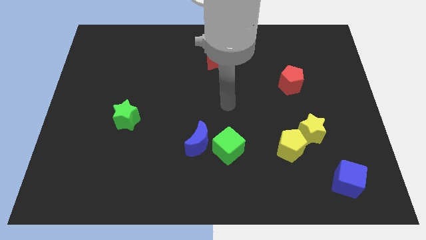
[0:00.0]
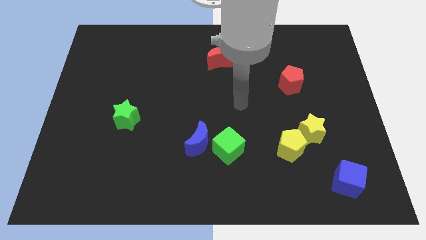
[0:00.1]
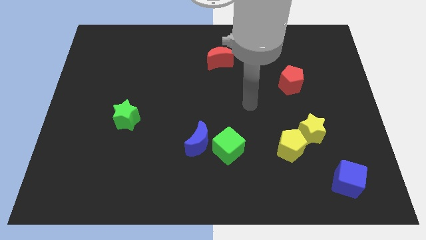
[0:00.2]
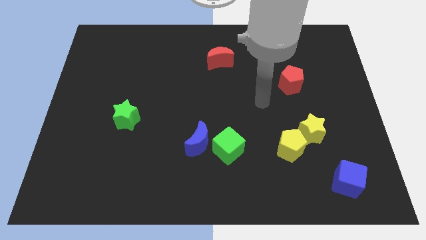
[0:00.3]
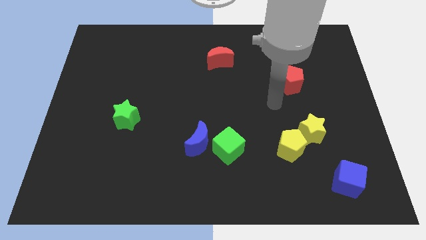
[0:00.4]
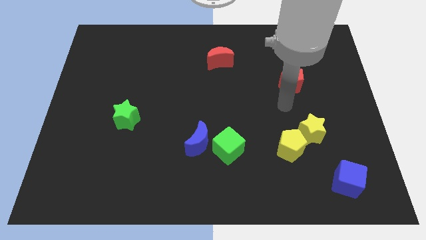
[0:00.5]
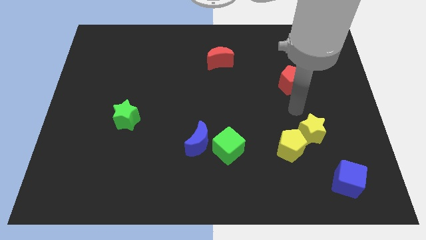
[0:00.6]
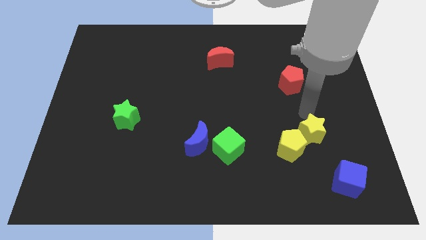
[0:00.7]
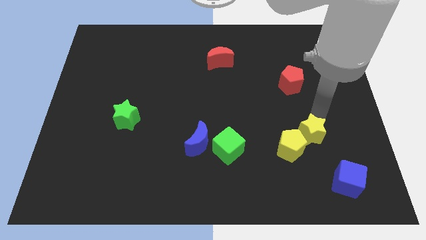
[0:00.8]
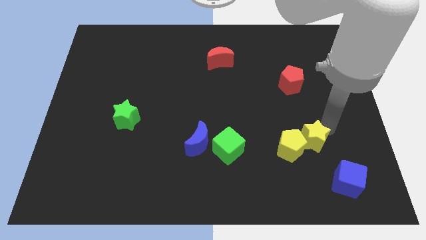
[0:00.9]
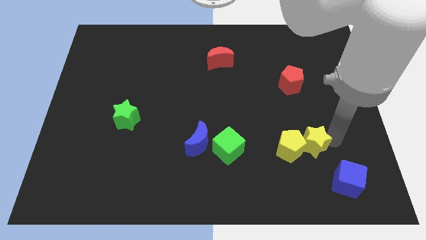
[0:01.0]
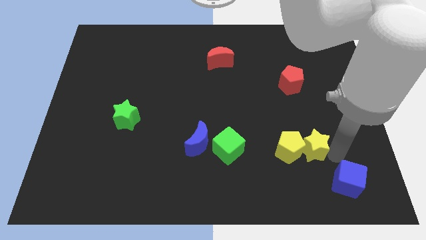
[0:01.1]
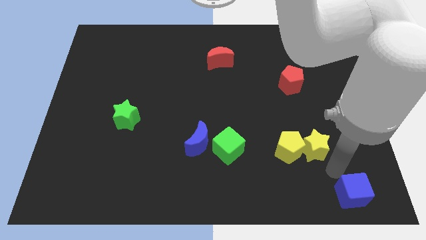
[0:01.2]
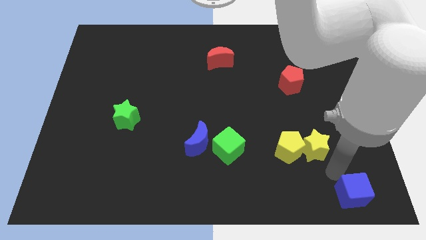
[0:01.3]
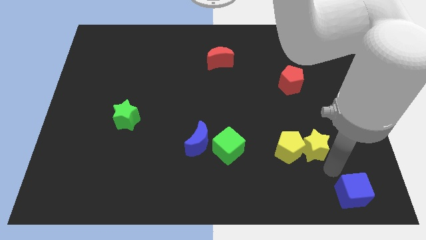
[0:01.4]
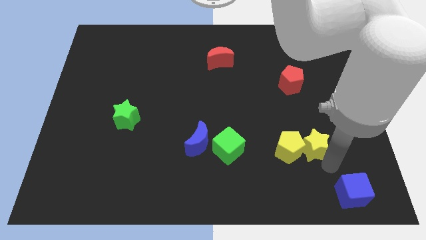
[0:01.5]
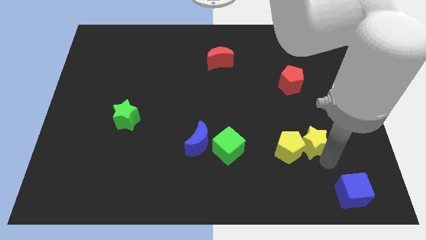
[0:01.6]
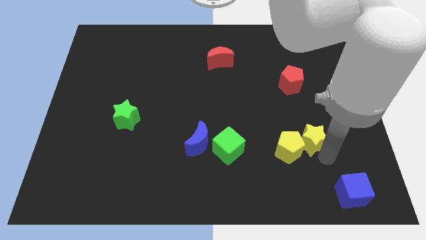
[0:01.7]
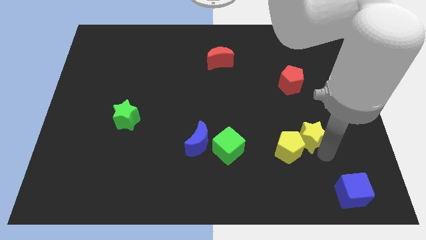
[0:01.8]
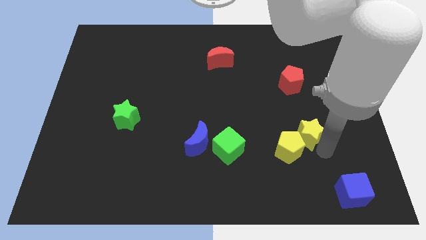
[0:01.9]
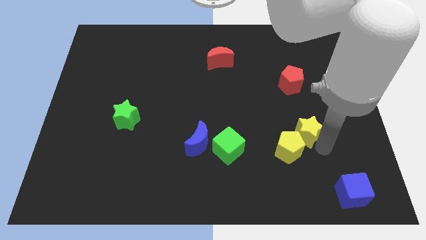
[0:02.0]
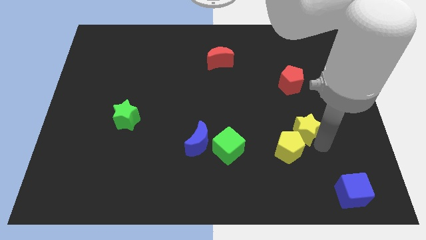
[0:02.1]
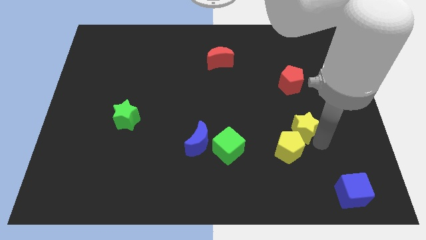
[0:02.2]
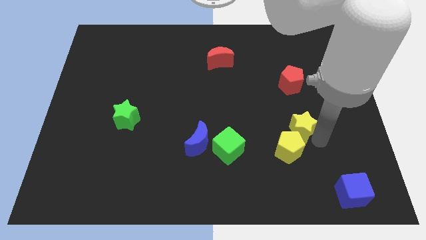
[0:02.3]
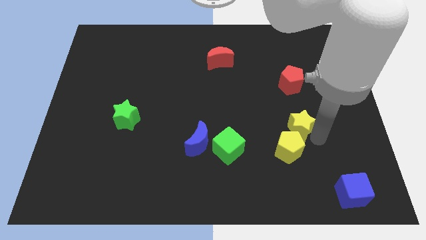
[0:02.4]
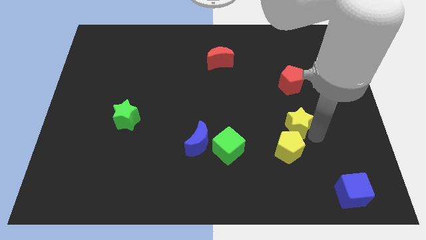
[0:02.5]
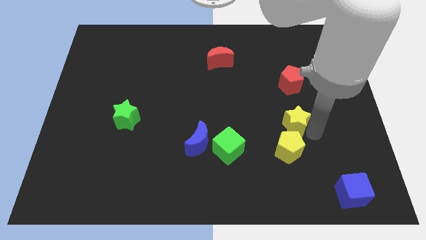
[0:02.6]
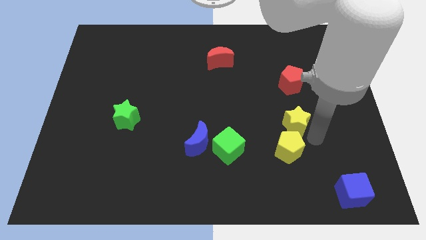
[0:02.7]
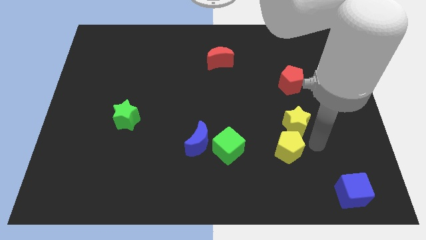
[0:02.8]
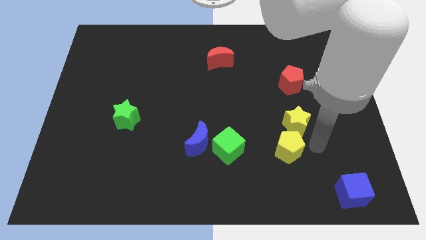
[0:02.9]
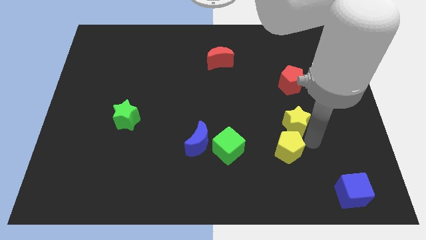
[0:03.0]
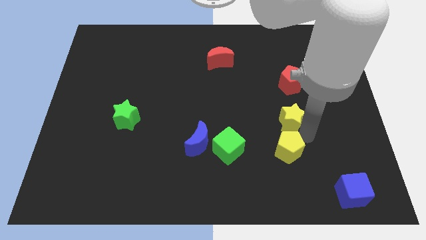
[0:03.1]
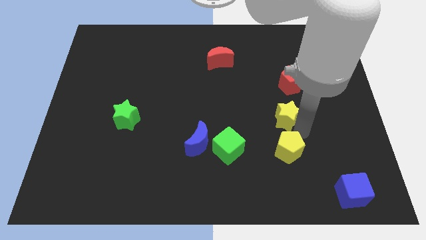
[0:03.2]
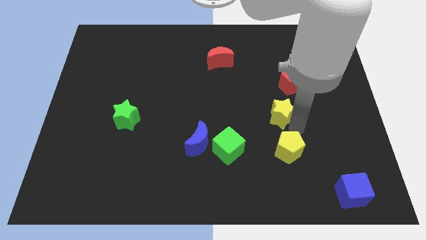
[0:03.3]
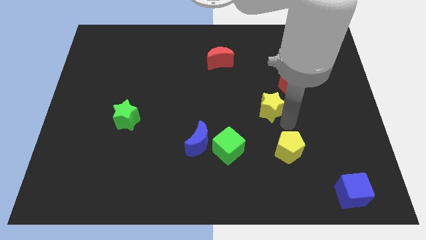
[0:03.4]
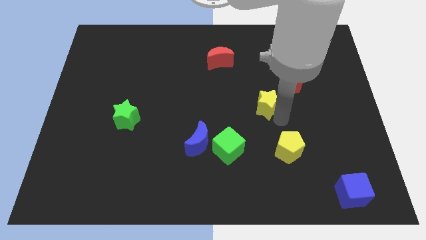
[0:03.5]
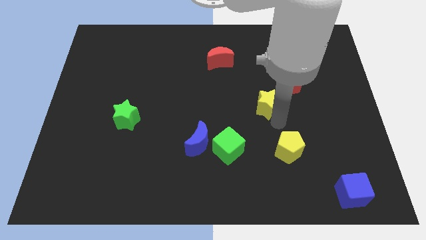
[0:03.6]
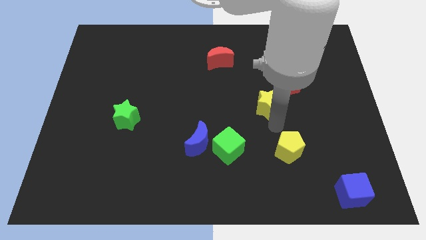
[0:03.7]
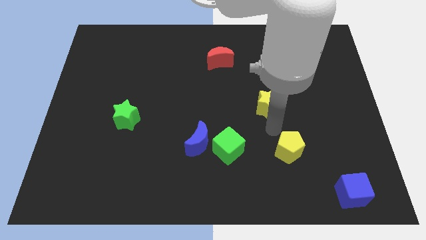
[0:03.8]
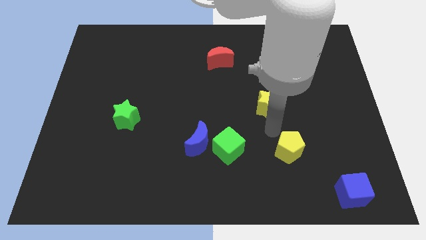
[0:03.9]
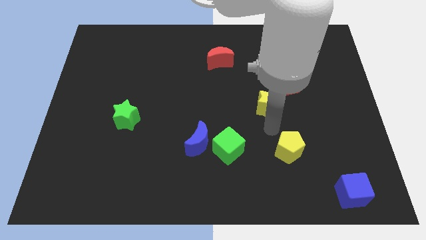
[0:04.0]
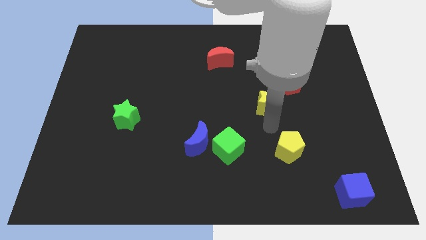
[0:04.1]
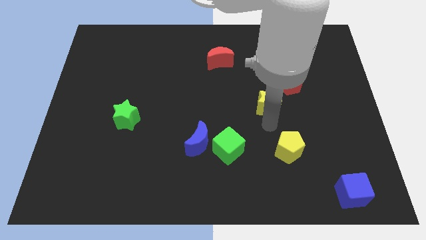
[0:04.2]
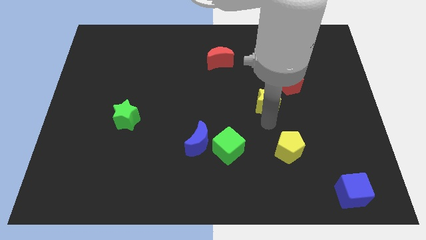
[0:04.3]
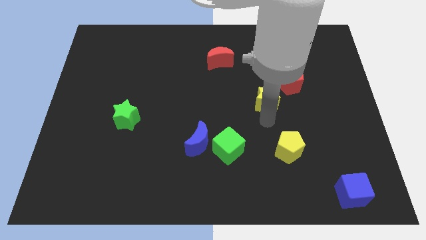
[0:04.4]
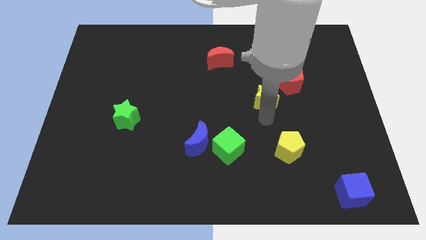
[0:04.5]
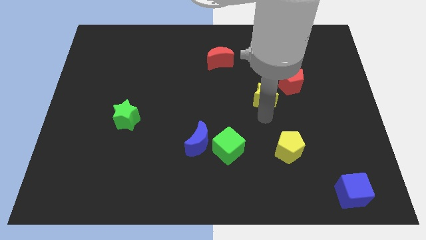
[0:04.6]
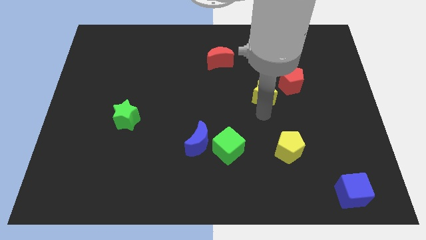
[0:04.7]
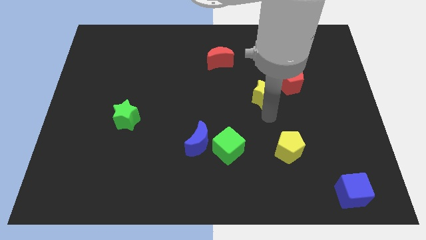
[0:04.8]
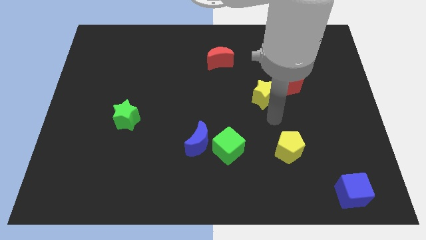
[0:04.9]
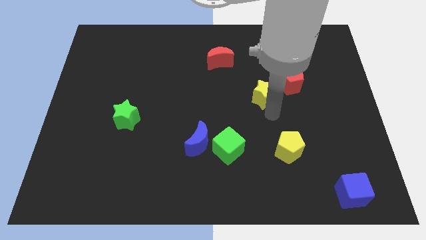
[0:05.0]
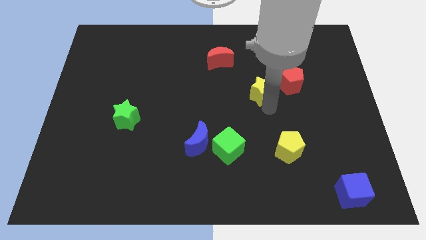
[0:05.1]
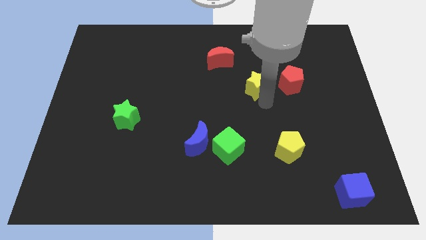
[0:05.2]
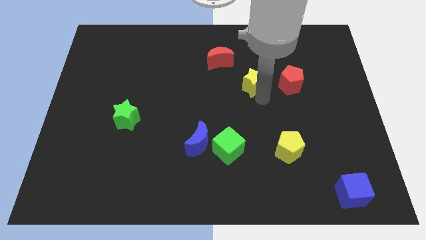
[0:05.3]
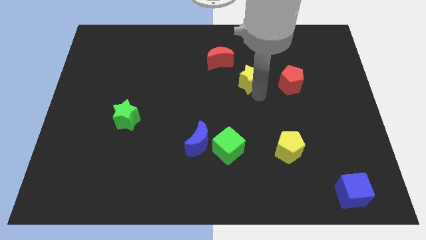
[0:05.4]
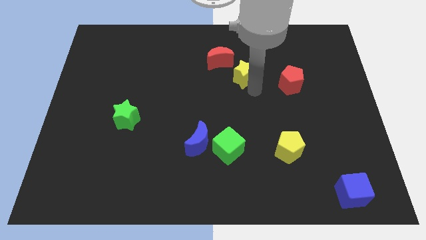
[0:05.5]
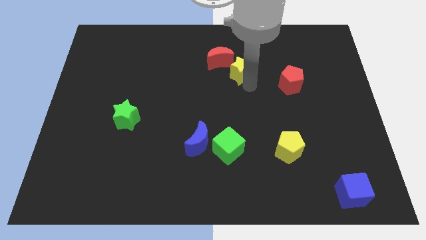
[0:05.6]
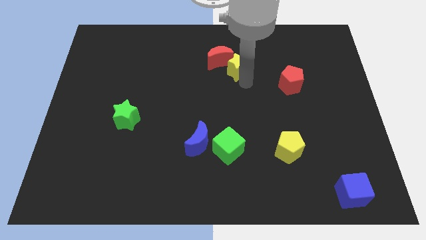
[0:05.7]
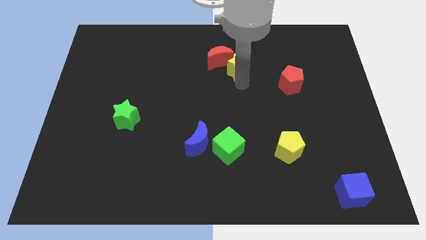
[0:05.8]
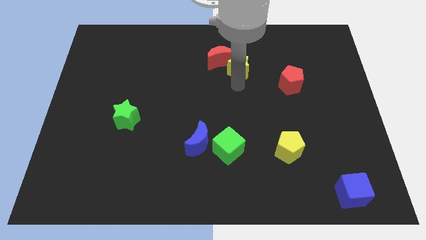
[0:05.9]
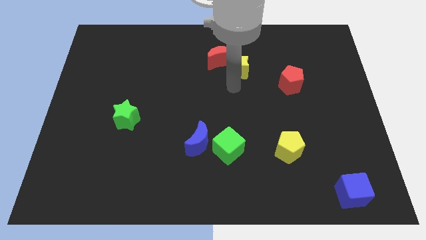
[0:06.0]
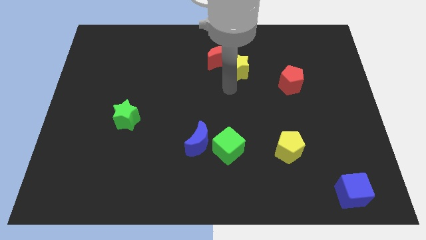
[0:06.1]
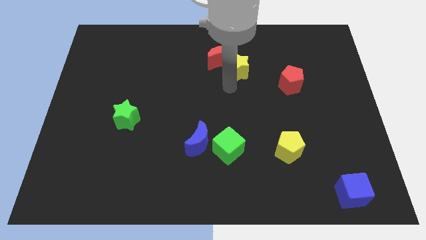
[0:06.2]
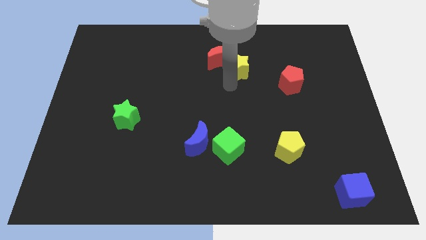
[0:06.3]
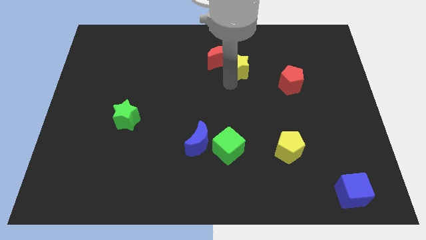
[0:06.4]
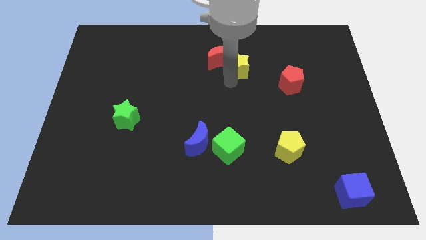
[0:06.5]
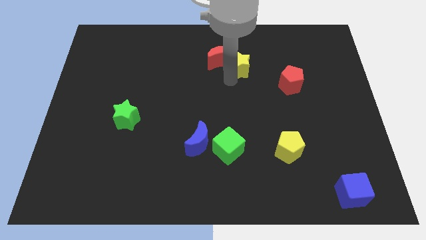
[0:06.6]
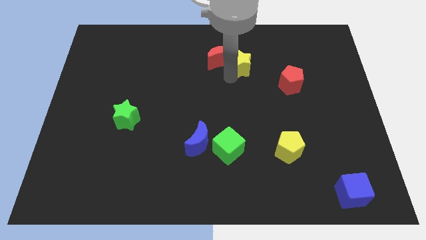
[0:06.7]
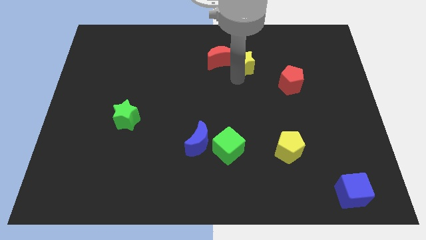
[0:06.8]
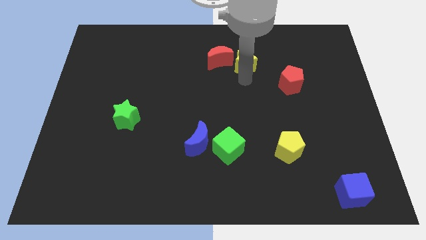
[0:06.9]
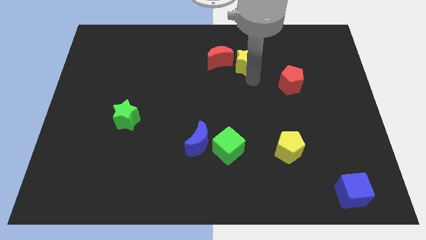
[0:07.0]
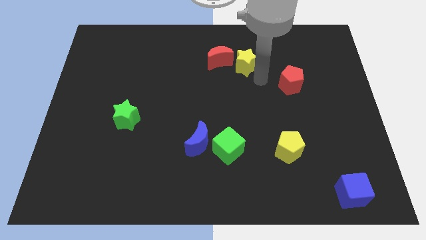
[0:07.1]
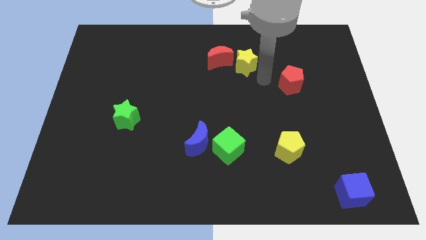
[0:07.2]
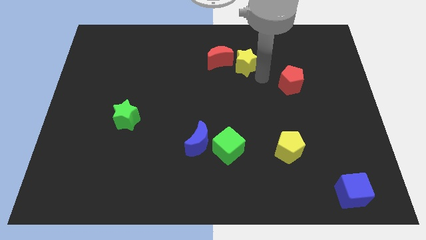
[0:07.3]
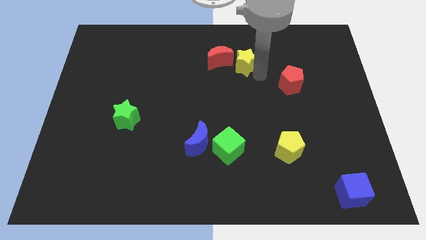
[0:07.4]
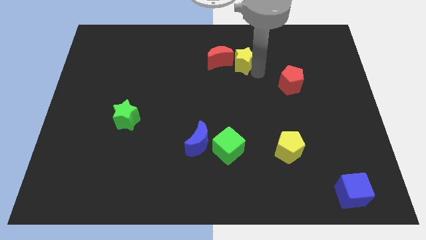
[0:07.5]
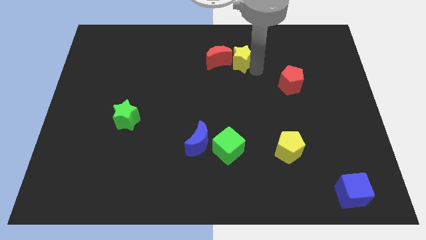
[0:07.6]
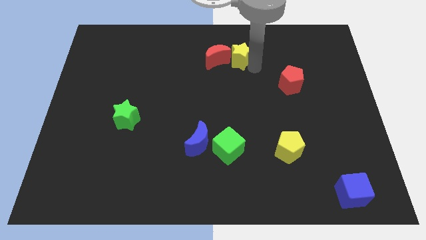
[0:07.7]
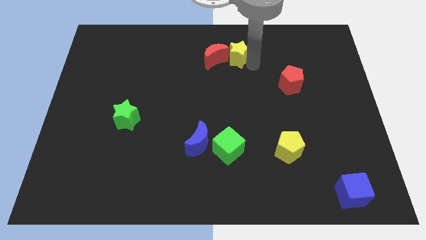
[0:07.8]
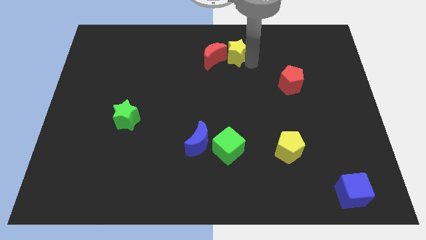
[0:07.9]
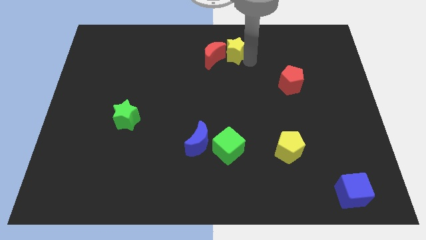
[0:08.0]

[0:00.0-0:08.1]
put the yellow star to the towards your base
